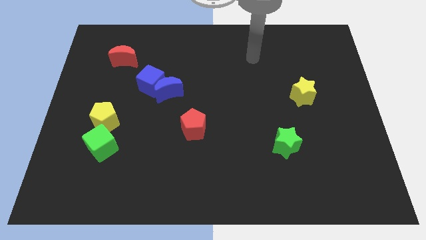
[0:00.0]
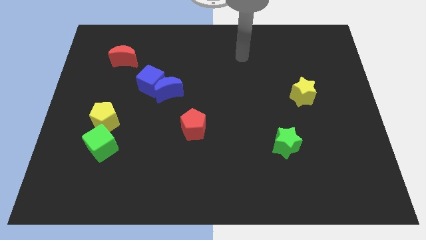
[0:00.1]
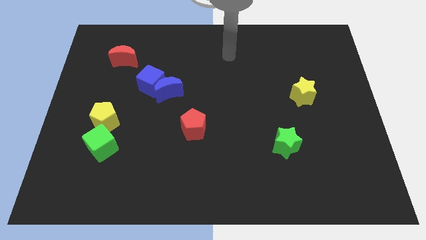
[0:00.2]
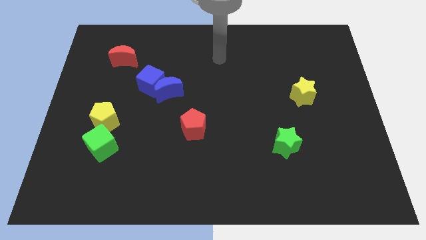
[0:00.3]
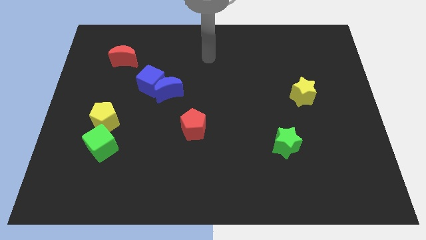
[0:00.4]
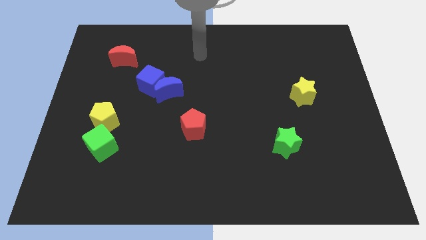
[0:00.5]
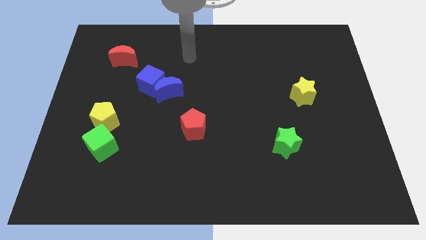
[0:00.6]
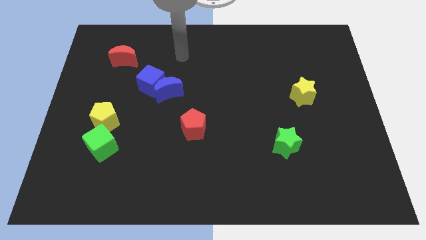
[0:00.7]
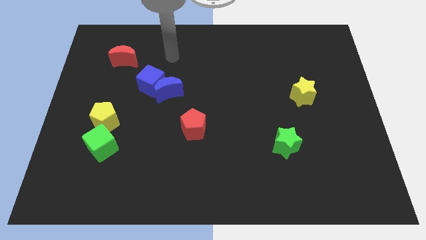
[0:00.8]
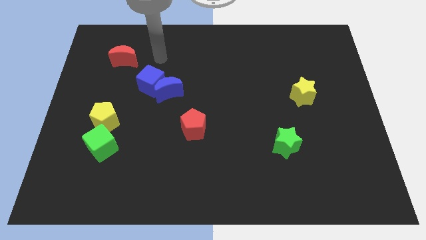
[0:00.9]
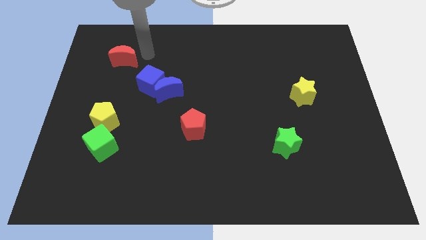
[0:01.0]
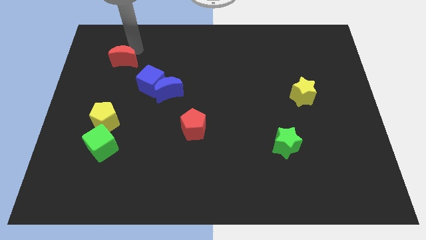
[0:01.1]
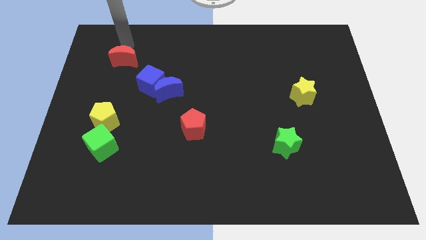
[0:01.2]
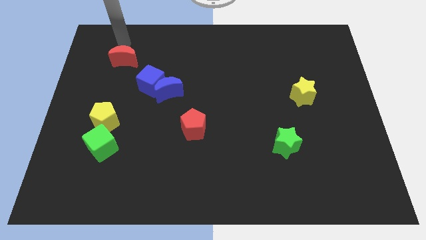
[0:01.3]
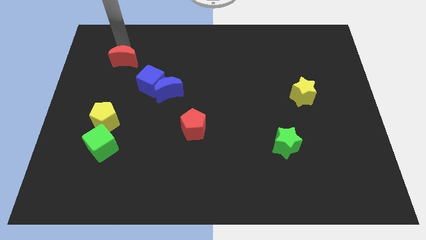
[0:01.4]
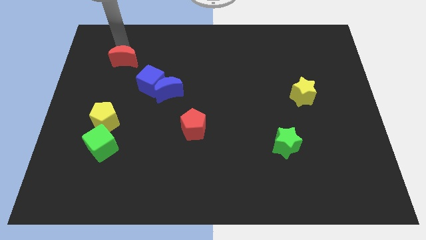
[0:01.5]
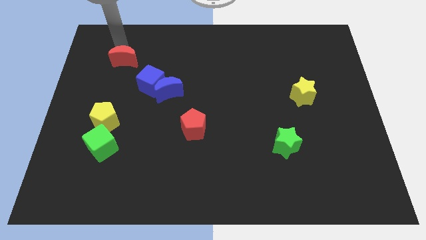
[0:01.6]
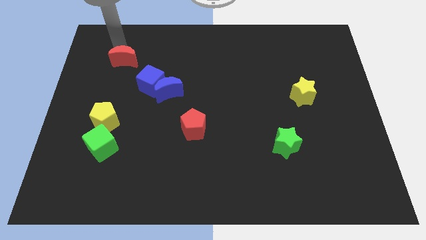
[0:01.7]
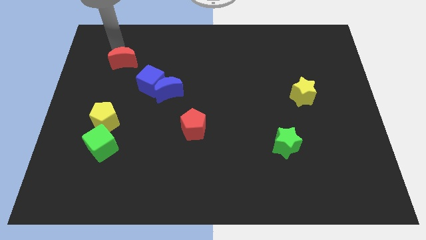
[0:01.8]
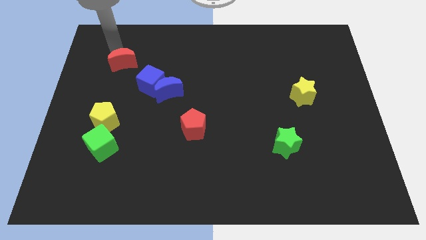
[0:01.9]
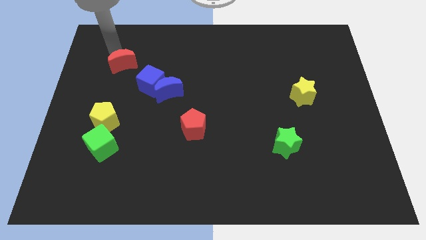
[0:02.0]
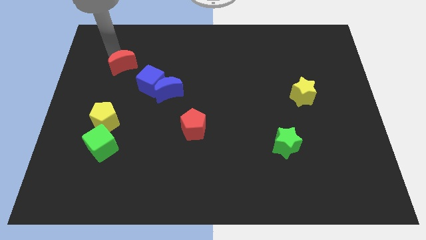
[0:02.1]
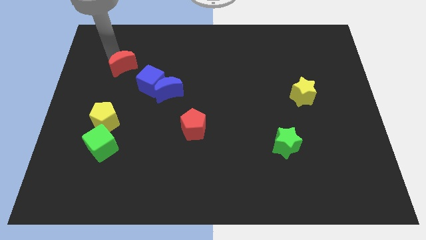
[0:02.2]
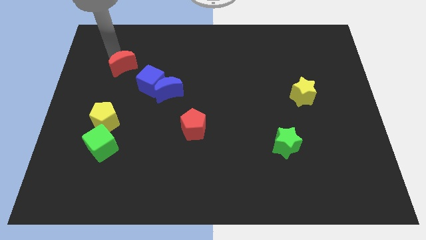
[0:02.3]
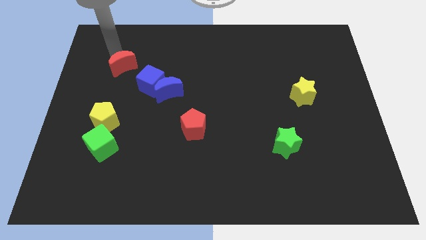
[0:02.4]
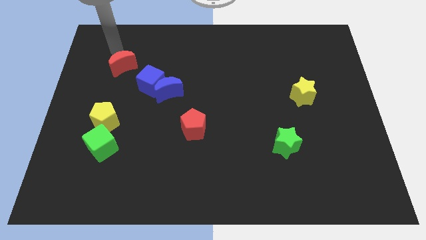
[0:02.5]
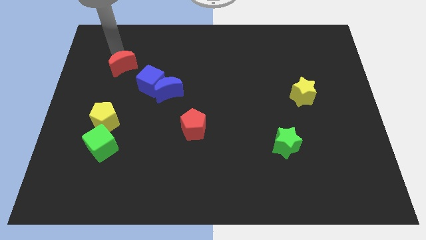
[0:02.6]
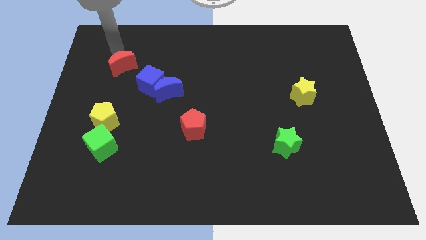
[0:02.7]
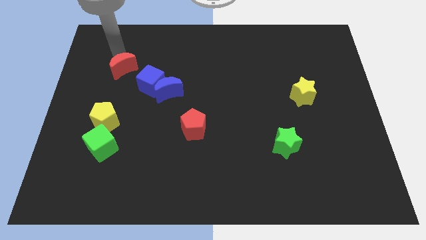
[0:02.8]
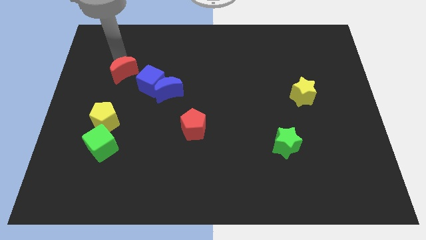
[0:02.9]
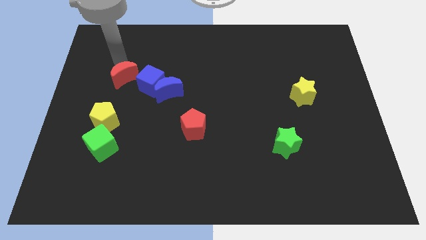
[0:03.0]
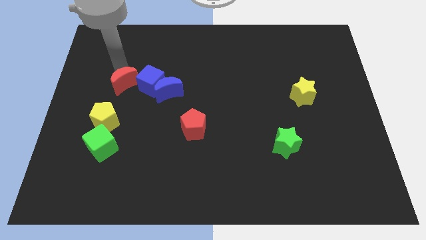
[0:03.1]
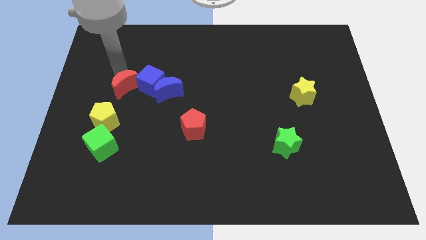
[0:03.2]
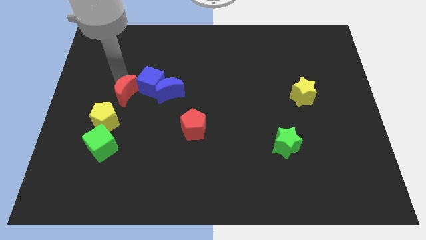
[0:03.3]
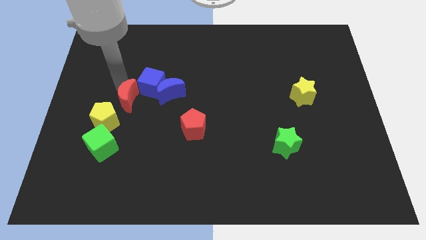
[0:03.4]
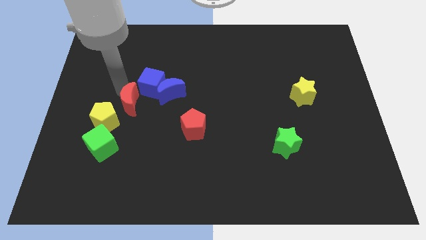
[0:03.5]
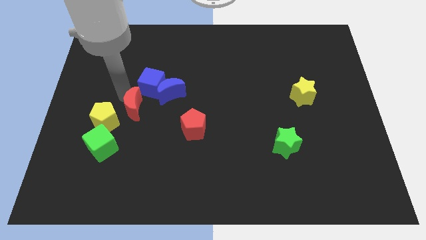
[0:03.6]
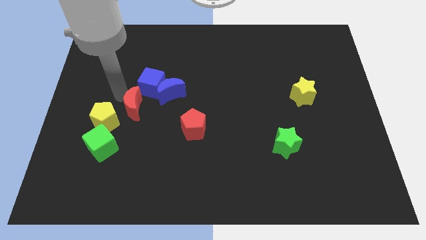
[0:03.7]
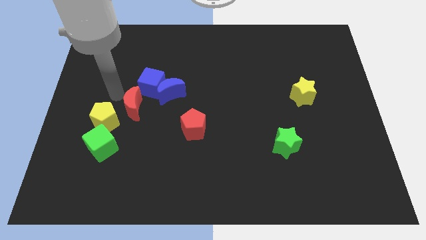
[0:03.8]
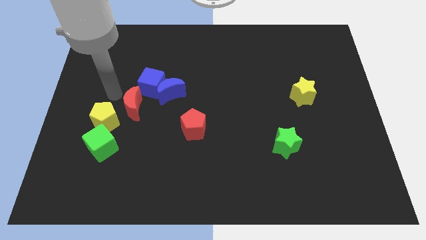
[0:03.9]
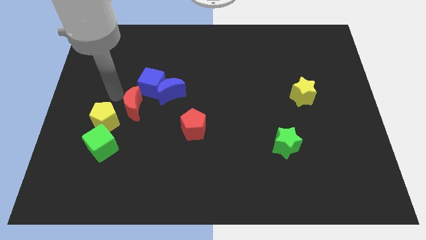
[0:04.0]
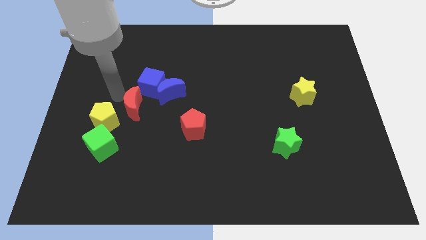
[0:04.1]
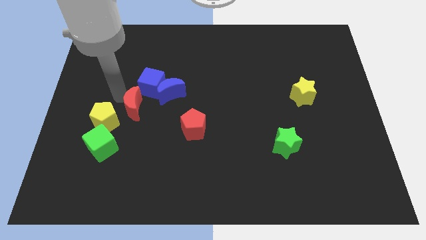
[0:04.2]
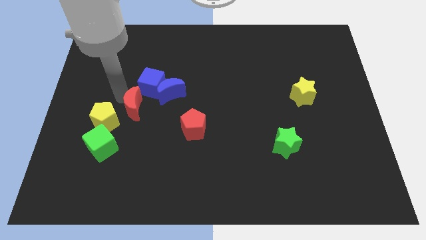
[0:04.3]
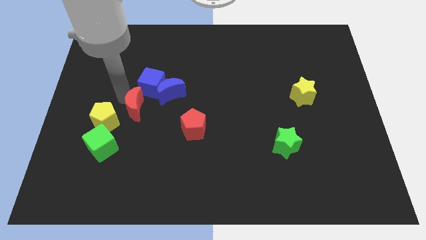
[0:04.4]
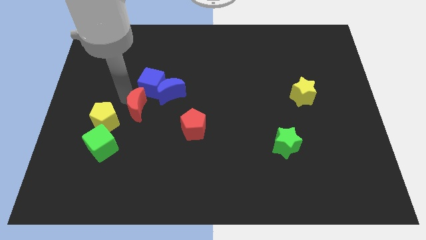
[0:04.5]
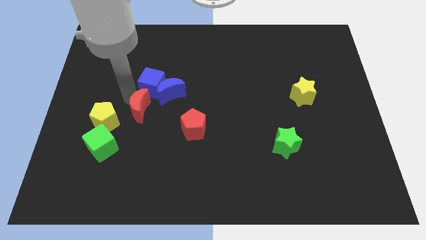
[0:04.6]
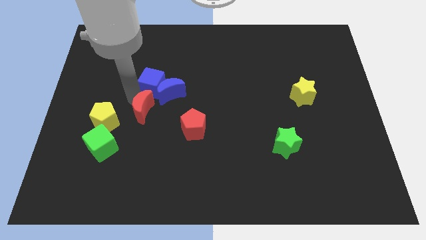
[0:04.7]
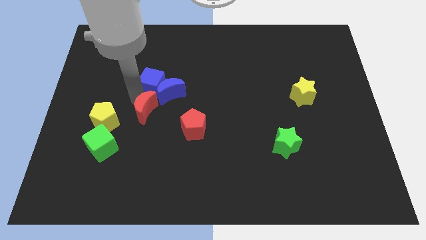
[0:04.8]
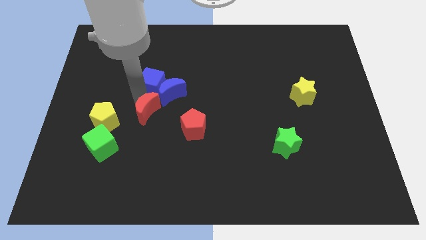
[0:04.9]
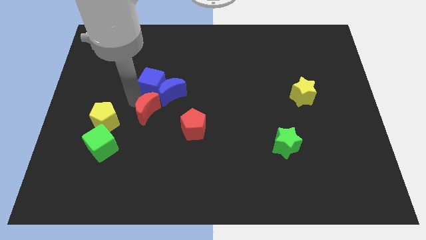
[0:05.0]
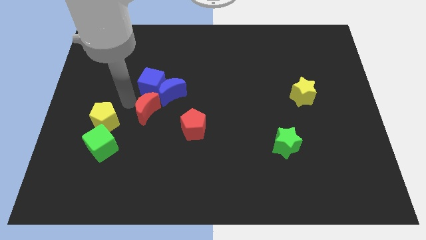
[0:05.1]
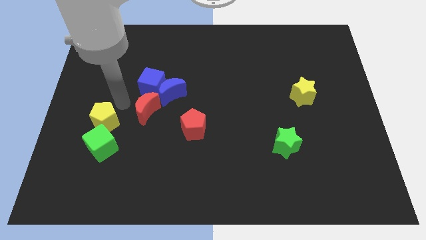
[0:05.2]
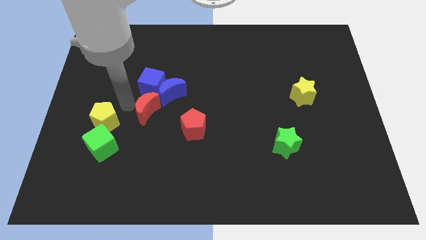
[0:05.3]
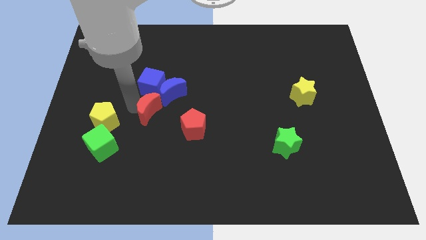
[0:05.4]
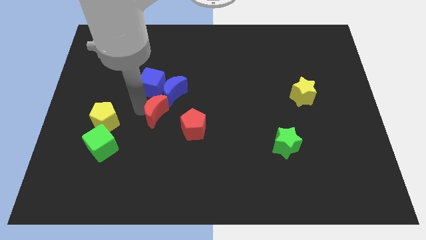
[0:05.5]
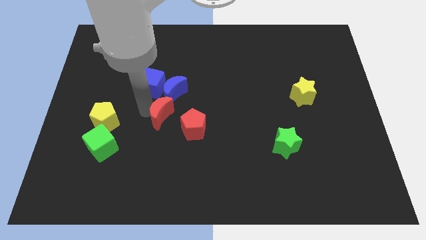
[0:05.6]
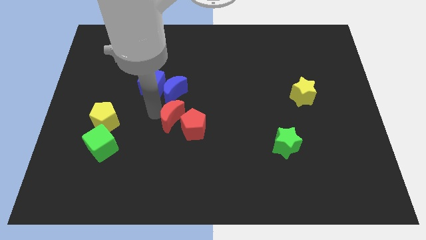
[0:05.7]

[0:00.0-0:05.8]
move the red moon to the red pentagon

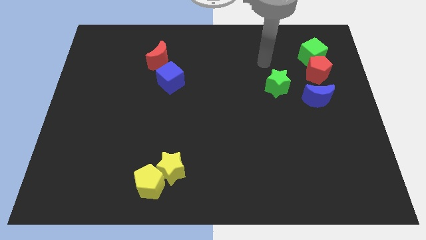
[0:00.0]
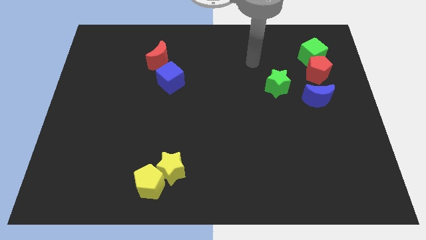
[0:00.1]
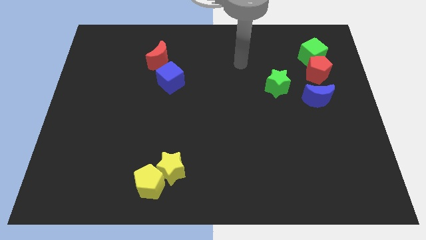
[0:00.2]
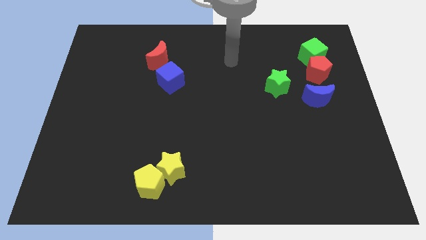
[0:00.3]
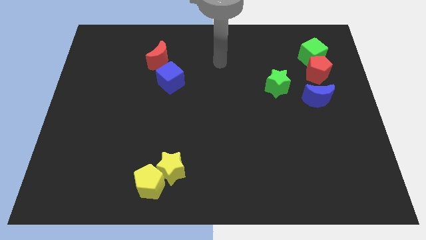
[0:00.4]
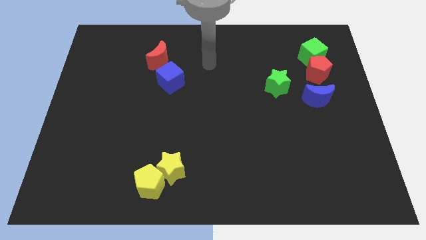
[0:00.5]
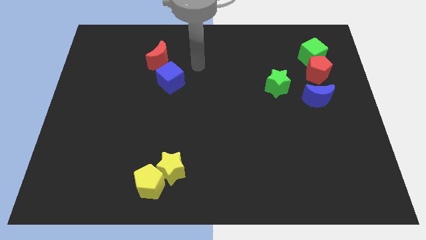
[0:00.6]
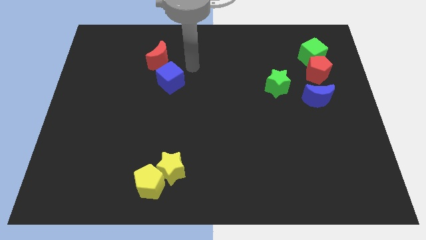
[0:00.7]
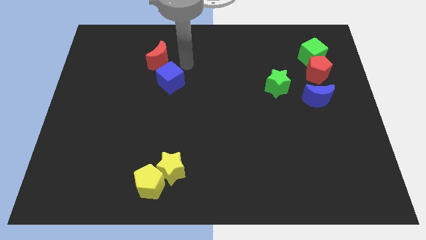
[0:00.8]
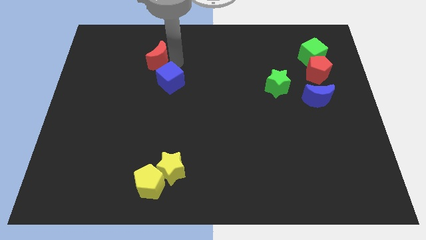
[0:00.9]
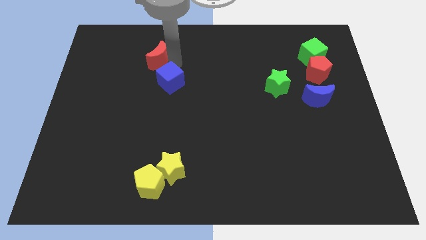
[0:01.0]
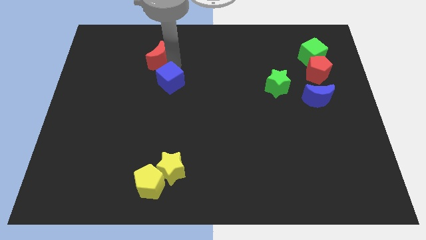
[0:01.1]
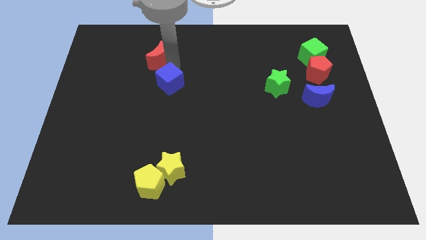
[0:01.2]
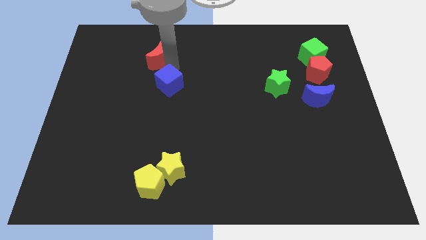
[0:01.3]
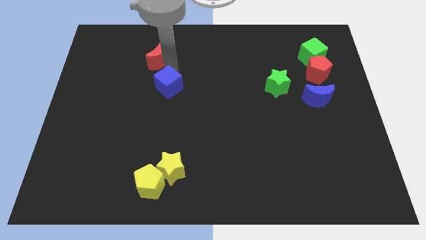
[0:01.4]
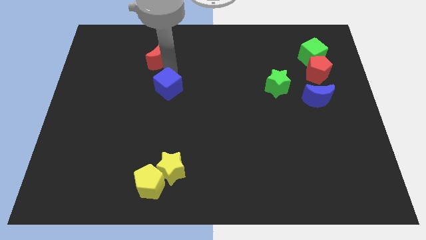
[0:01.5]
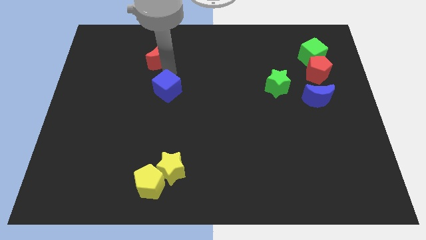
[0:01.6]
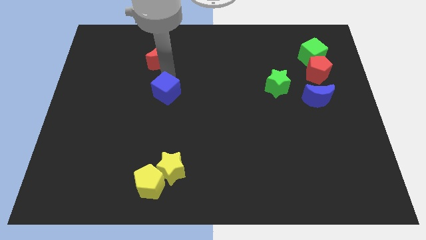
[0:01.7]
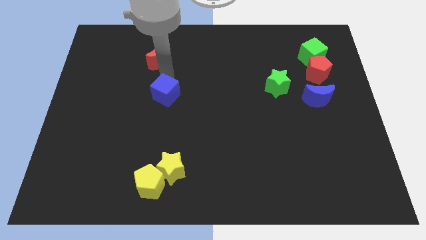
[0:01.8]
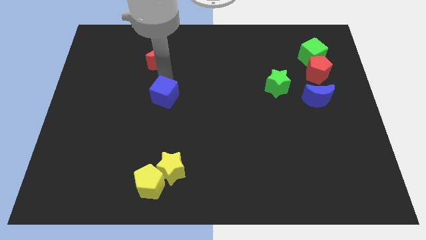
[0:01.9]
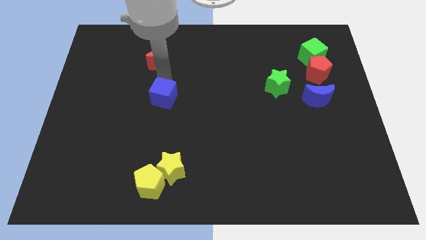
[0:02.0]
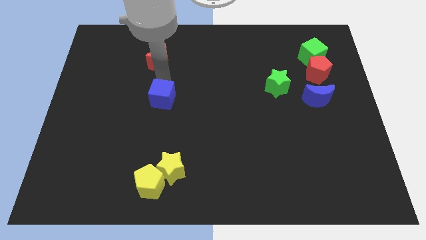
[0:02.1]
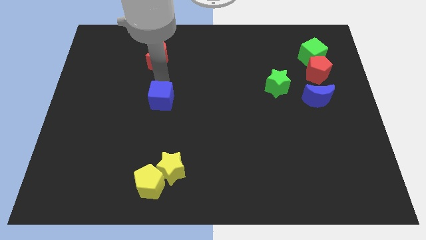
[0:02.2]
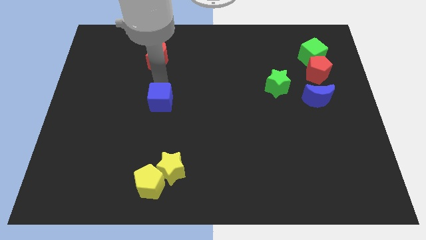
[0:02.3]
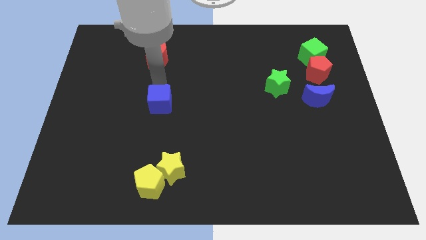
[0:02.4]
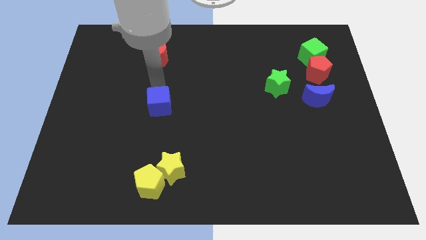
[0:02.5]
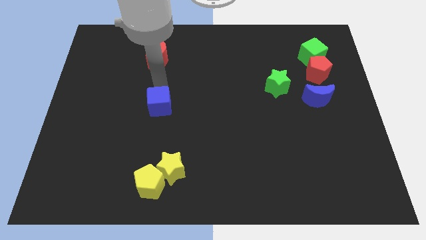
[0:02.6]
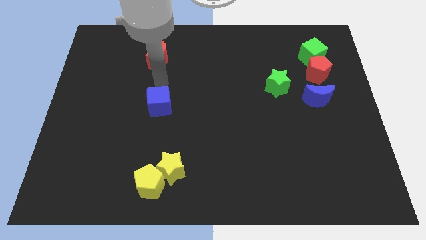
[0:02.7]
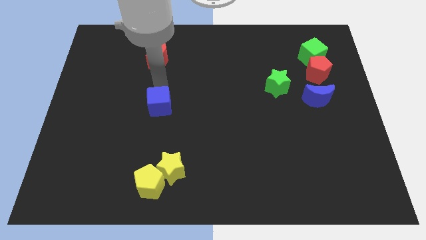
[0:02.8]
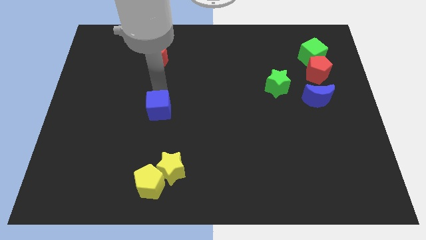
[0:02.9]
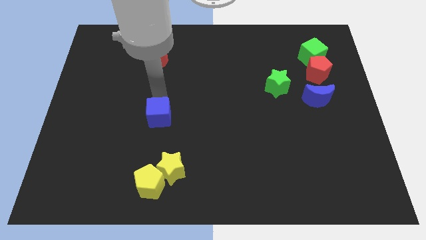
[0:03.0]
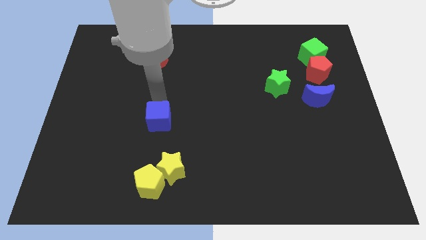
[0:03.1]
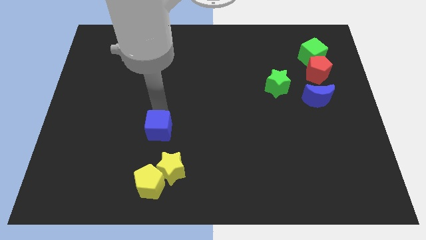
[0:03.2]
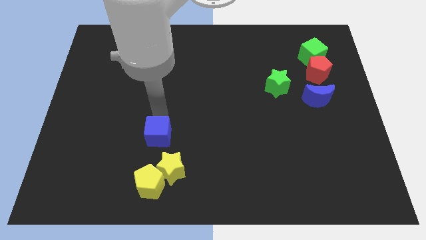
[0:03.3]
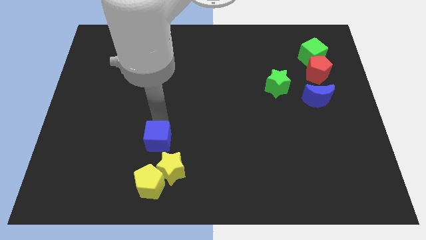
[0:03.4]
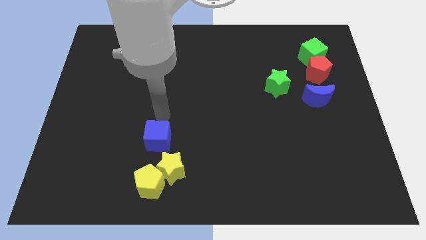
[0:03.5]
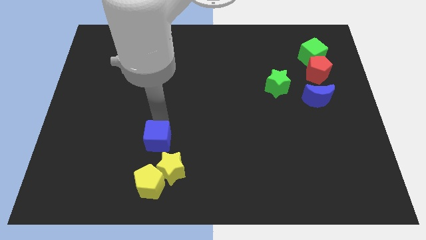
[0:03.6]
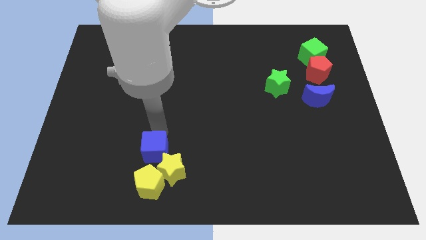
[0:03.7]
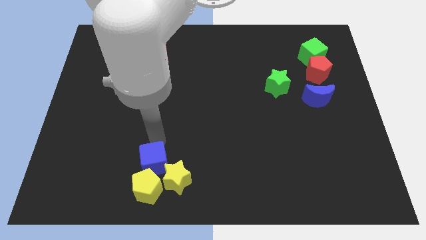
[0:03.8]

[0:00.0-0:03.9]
push the blue cube to the yellow pentagon
